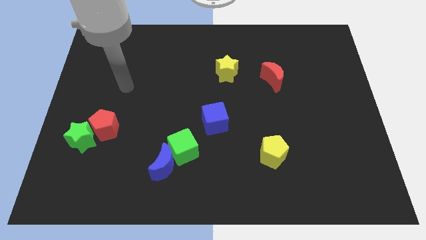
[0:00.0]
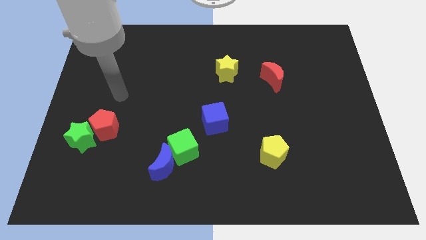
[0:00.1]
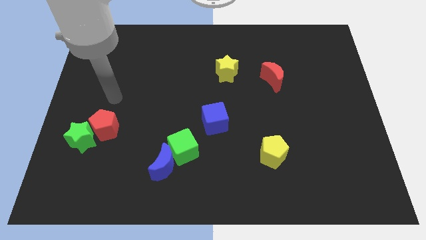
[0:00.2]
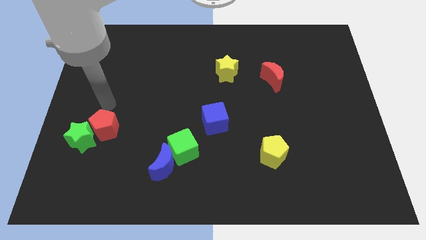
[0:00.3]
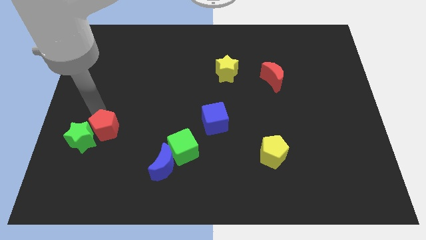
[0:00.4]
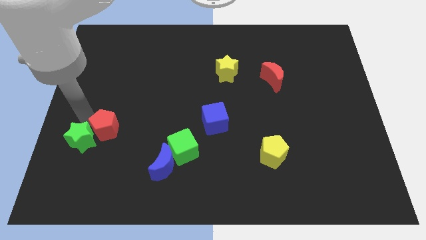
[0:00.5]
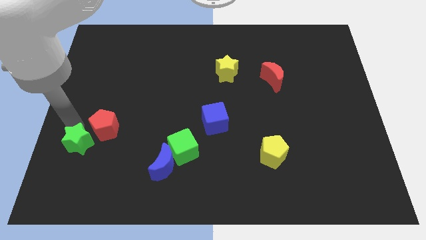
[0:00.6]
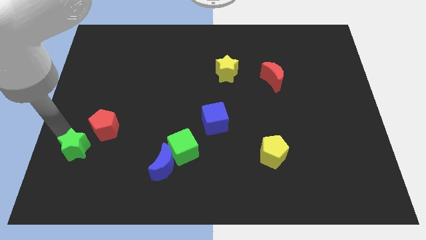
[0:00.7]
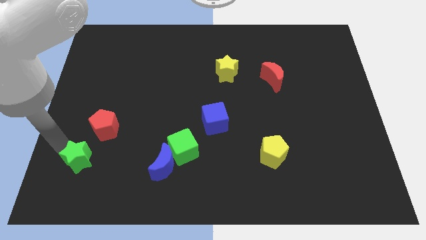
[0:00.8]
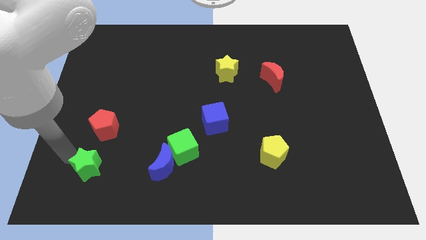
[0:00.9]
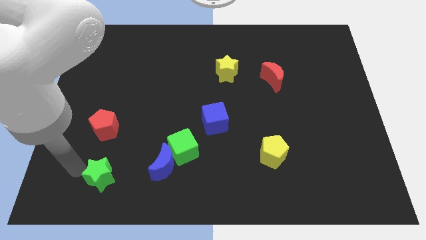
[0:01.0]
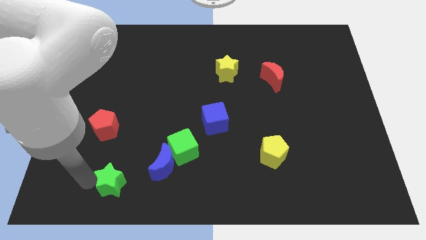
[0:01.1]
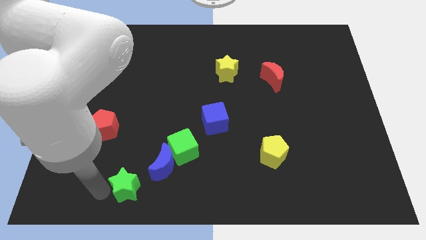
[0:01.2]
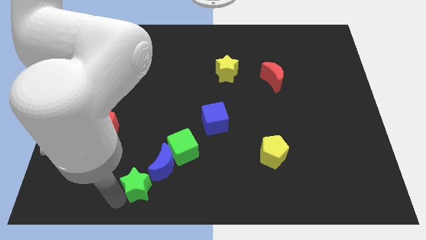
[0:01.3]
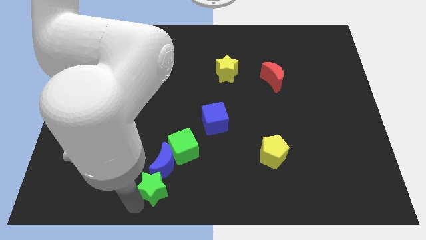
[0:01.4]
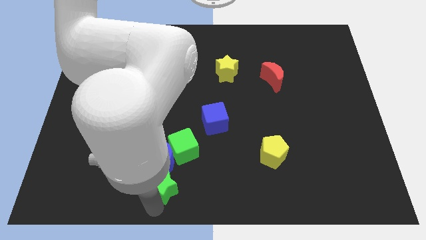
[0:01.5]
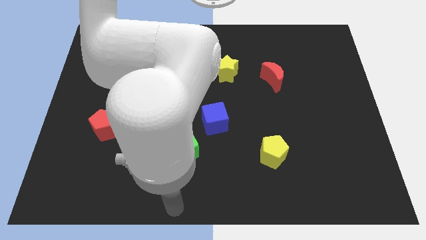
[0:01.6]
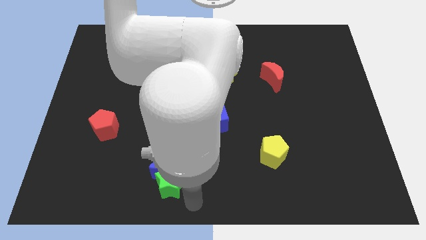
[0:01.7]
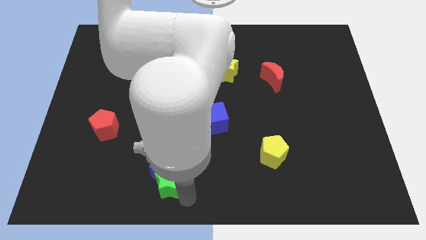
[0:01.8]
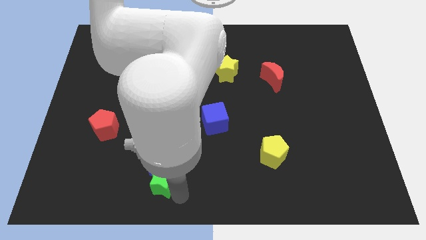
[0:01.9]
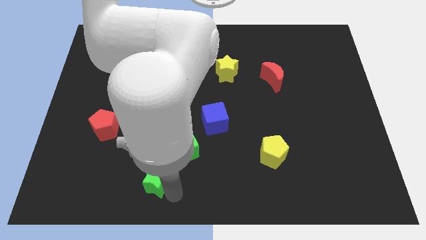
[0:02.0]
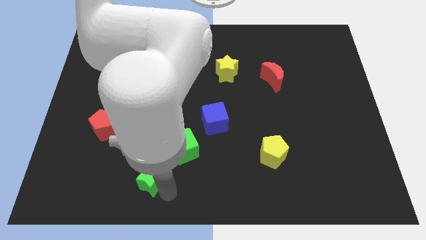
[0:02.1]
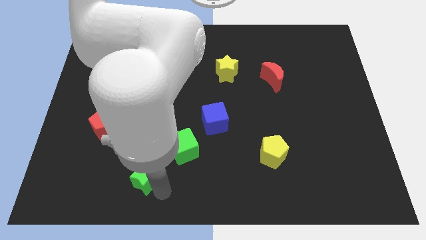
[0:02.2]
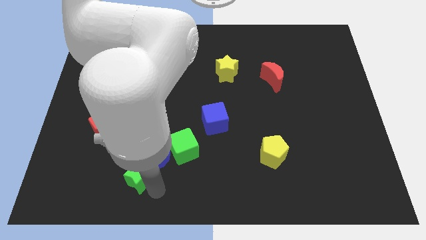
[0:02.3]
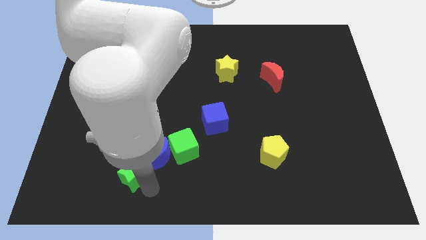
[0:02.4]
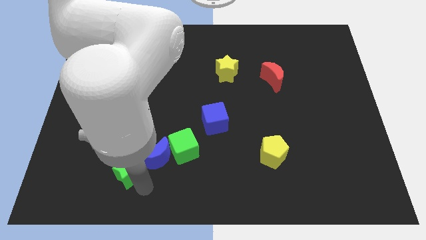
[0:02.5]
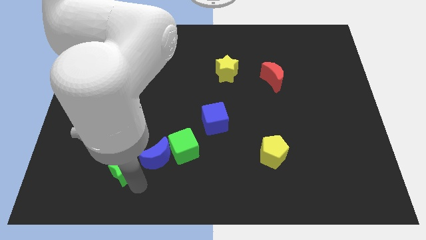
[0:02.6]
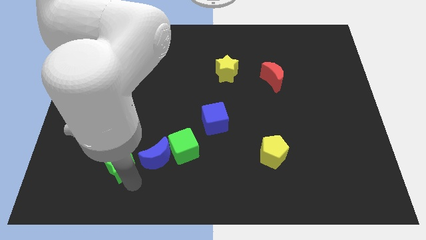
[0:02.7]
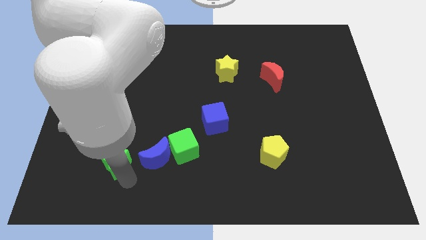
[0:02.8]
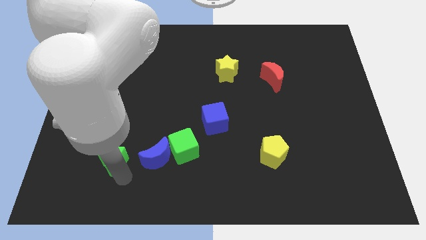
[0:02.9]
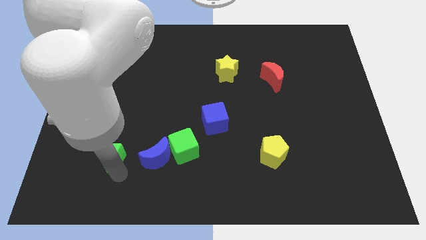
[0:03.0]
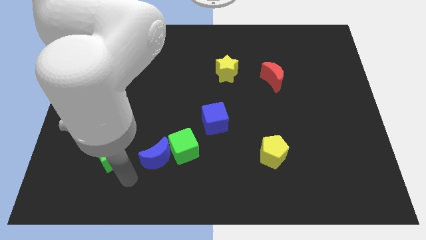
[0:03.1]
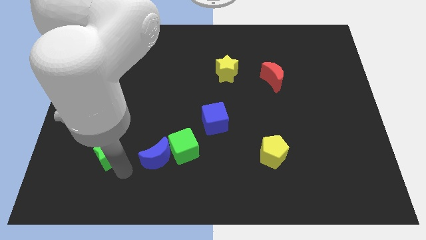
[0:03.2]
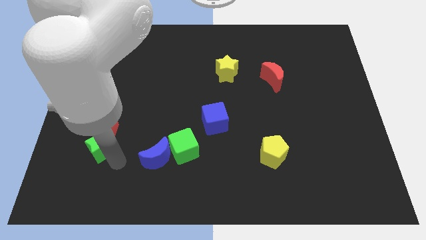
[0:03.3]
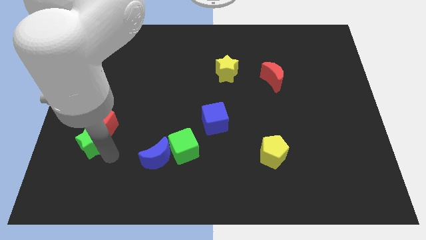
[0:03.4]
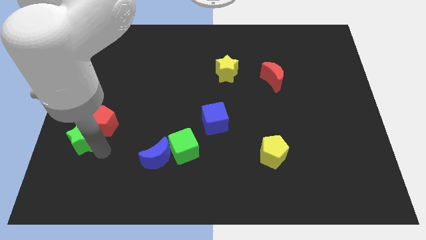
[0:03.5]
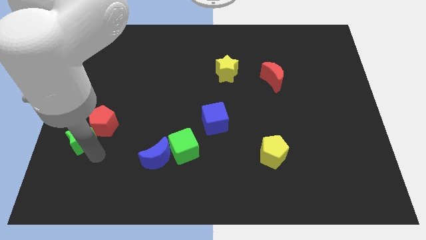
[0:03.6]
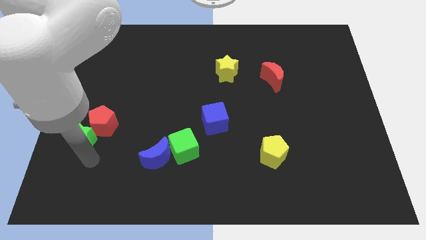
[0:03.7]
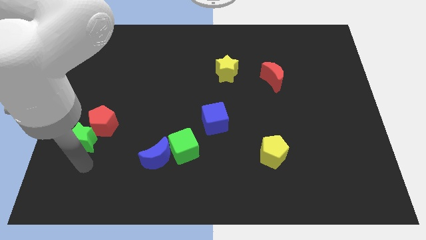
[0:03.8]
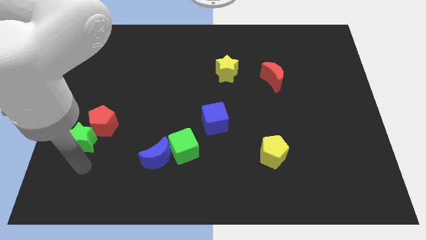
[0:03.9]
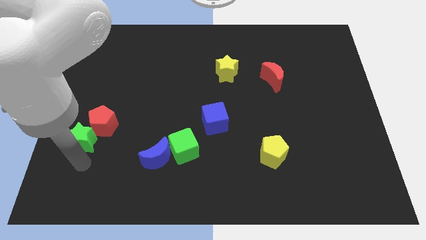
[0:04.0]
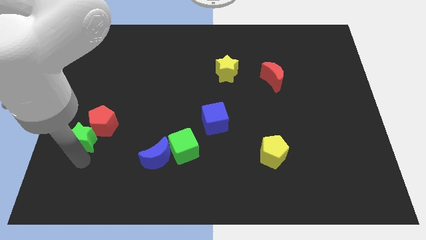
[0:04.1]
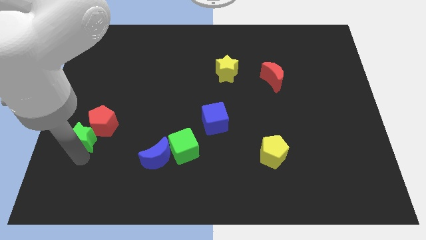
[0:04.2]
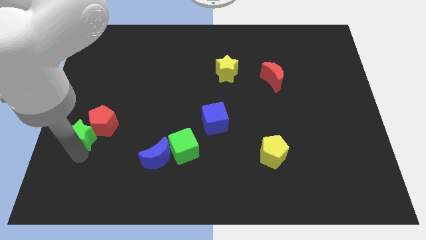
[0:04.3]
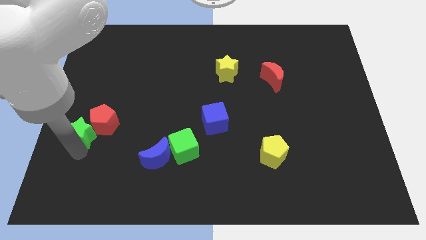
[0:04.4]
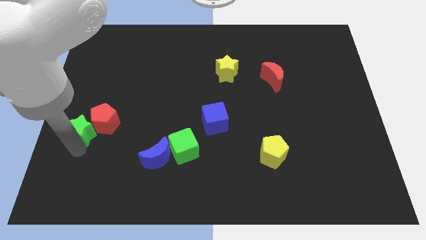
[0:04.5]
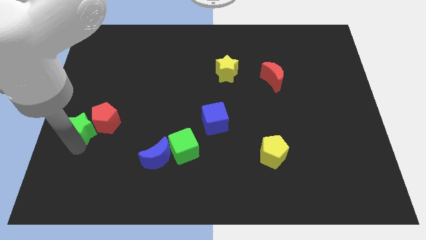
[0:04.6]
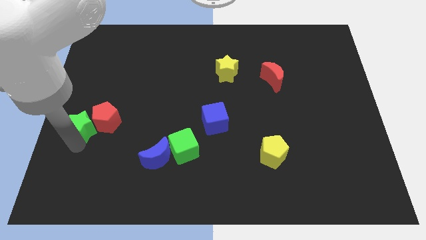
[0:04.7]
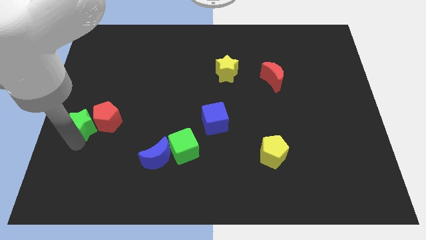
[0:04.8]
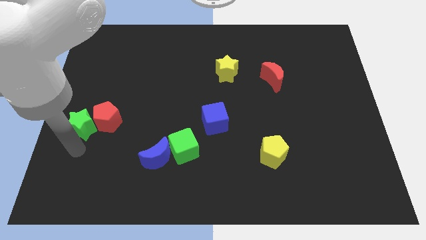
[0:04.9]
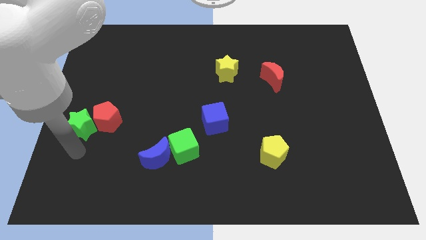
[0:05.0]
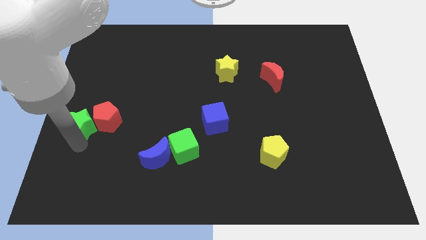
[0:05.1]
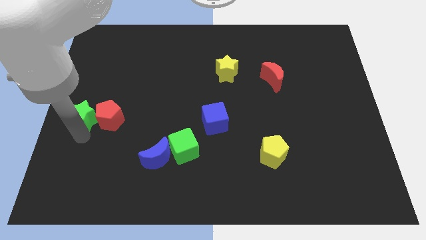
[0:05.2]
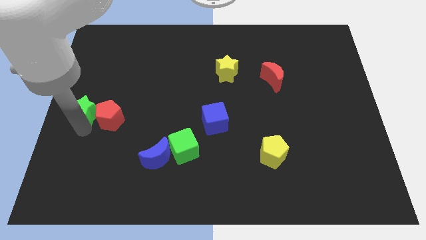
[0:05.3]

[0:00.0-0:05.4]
slide the green star slightly up

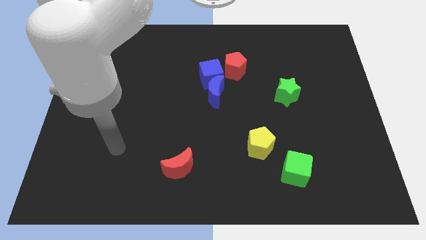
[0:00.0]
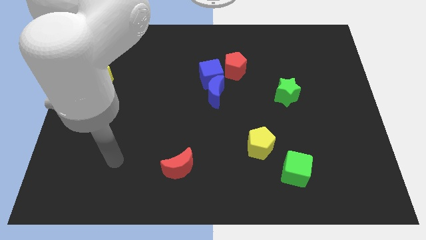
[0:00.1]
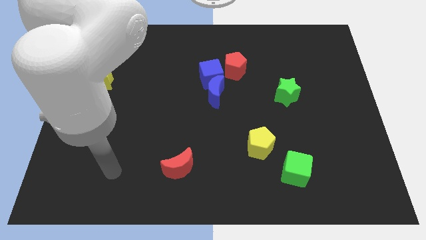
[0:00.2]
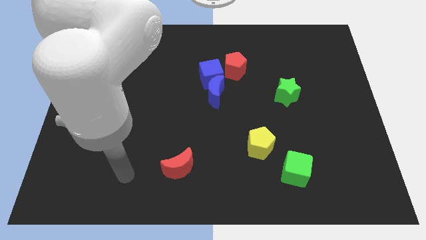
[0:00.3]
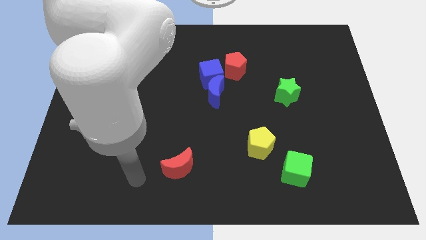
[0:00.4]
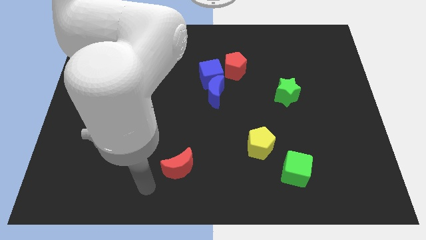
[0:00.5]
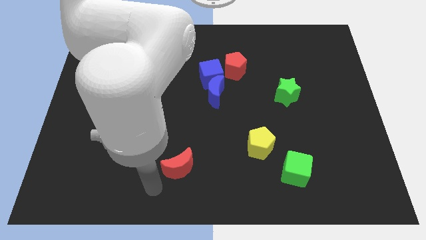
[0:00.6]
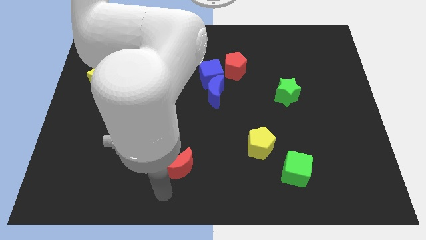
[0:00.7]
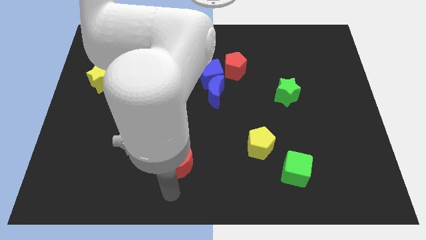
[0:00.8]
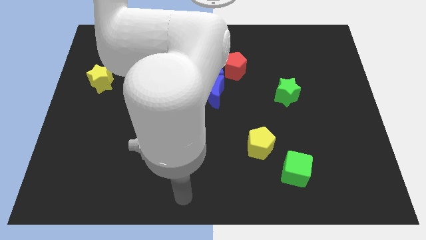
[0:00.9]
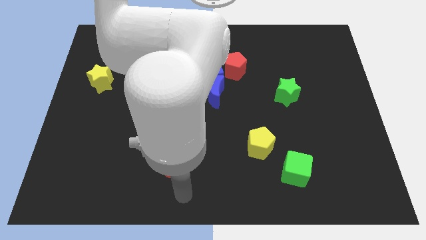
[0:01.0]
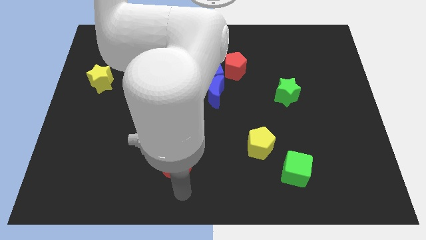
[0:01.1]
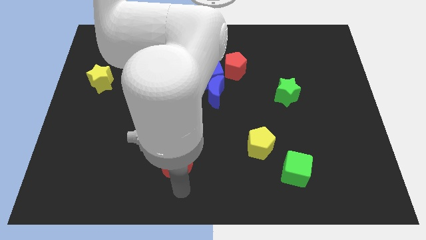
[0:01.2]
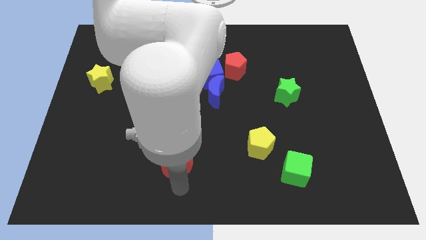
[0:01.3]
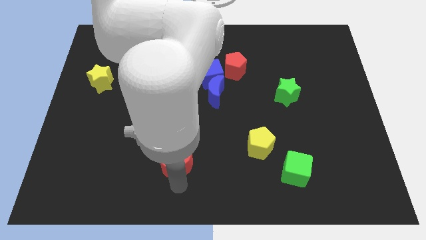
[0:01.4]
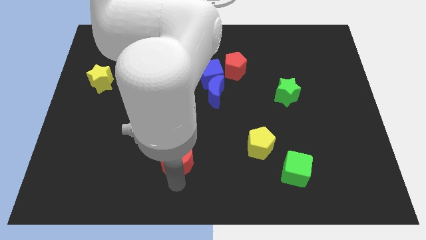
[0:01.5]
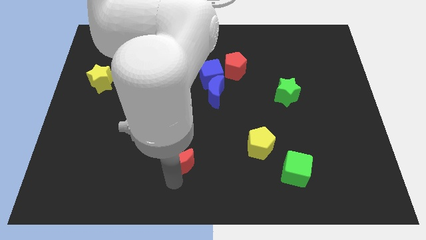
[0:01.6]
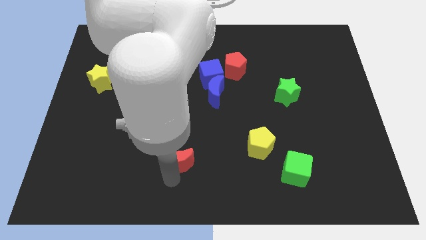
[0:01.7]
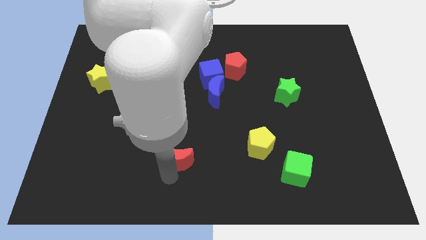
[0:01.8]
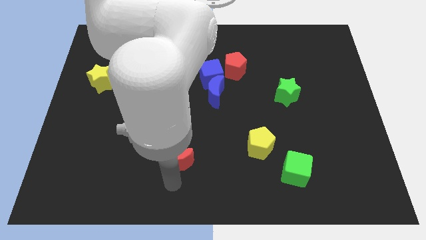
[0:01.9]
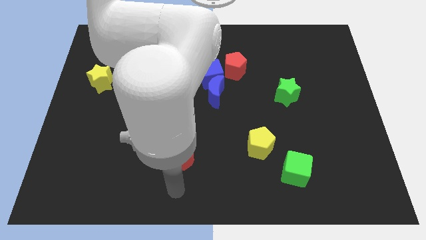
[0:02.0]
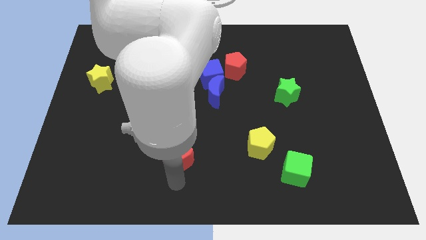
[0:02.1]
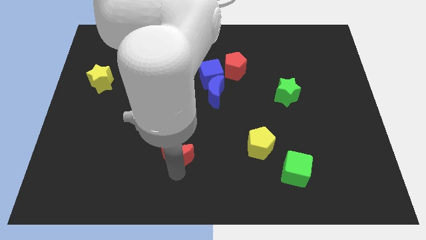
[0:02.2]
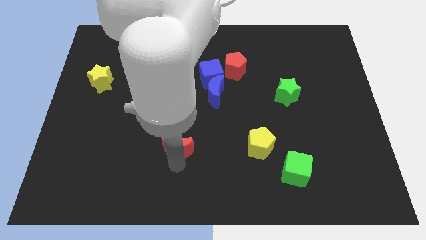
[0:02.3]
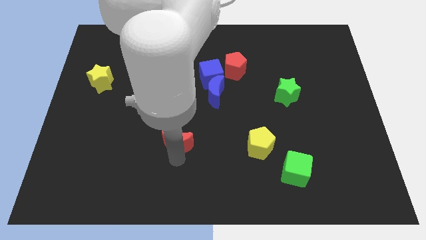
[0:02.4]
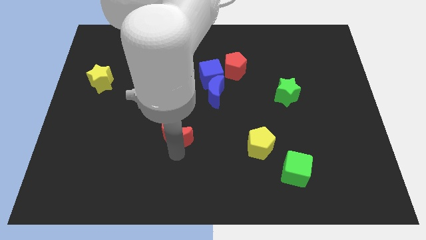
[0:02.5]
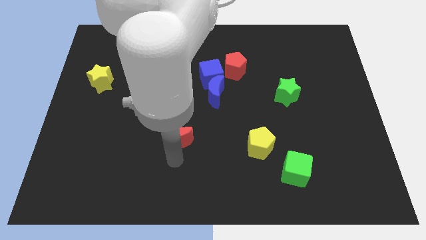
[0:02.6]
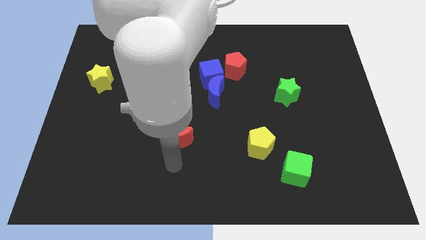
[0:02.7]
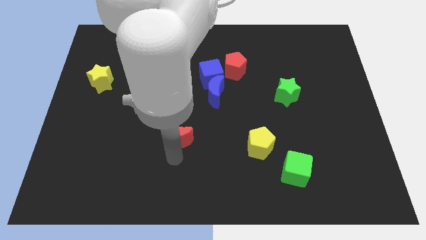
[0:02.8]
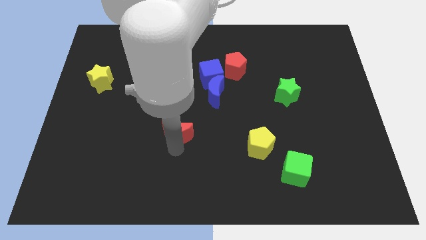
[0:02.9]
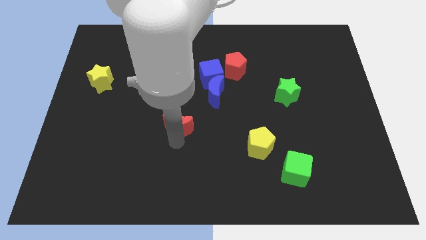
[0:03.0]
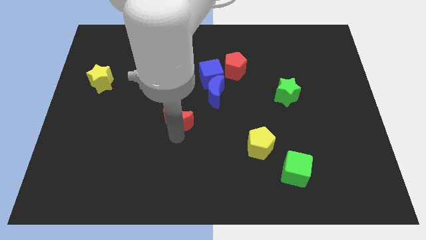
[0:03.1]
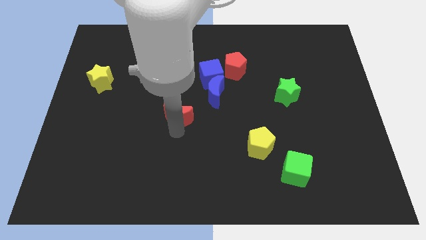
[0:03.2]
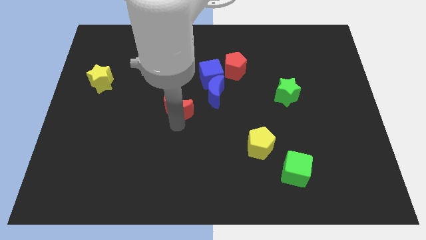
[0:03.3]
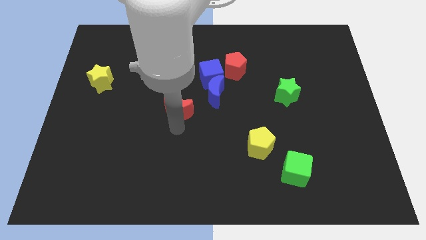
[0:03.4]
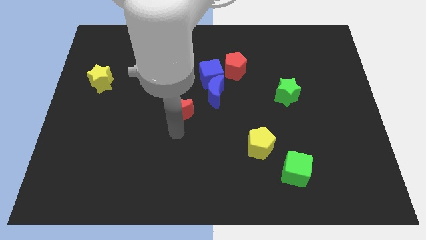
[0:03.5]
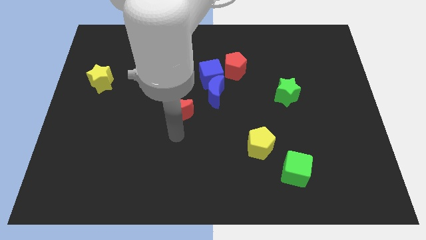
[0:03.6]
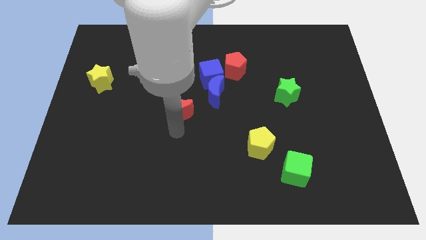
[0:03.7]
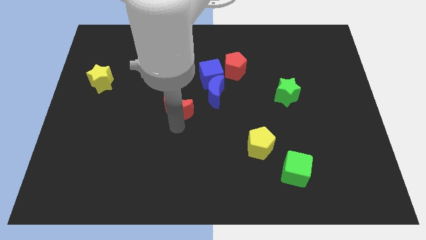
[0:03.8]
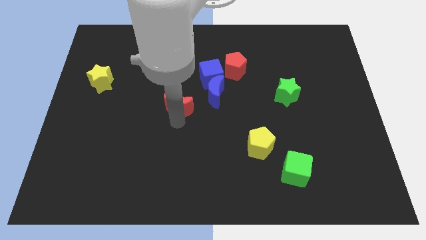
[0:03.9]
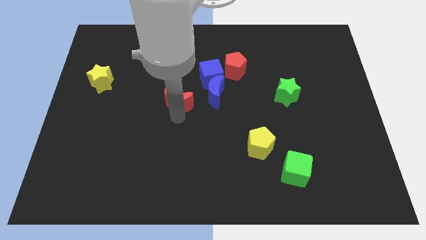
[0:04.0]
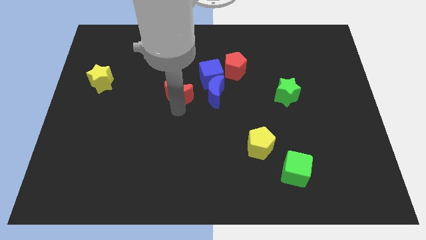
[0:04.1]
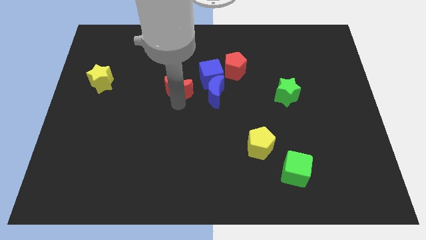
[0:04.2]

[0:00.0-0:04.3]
slide the red moon upwards
